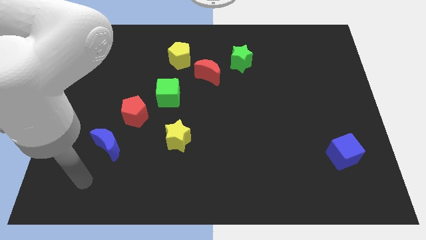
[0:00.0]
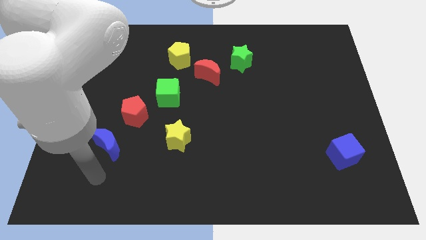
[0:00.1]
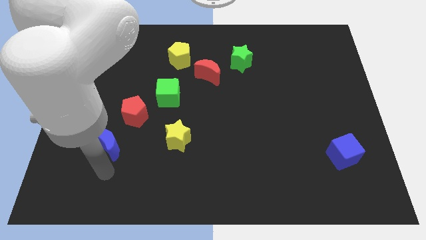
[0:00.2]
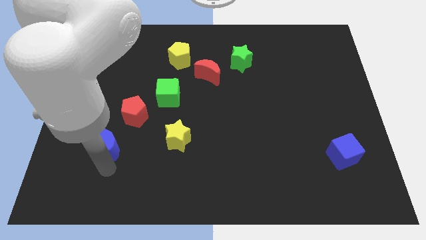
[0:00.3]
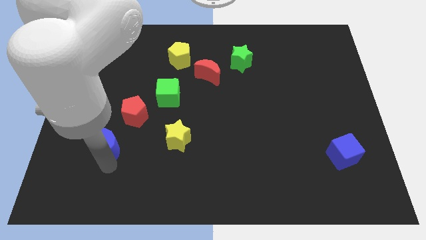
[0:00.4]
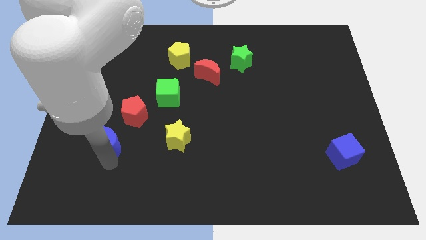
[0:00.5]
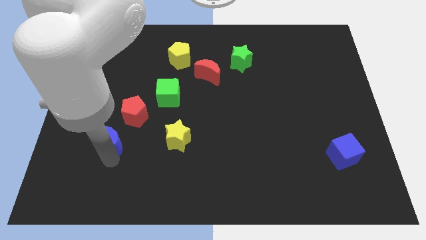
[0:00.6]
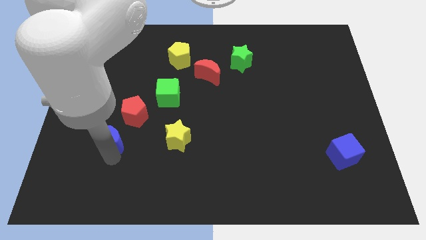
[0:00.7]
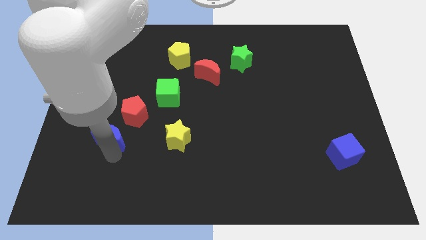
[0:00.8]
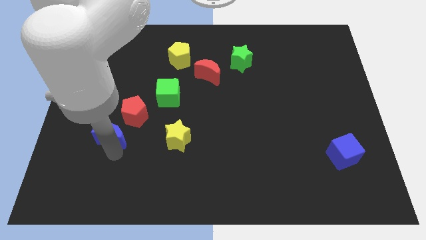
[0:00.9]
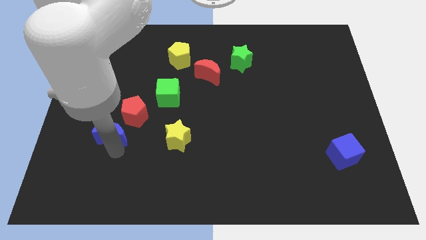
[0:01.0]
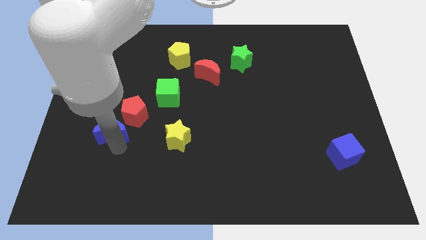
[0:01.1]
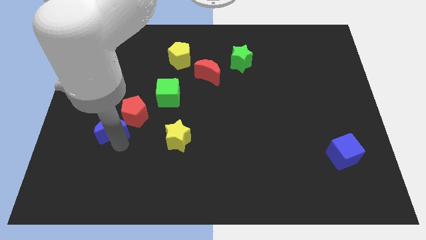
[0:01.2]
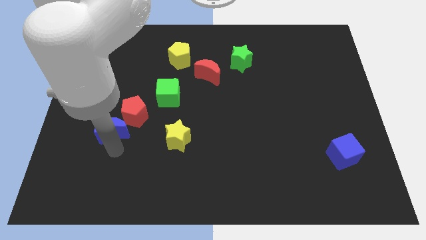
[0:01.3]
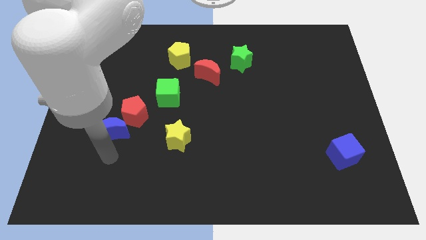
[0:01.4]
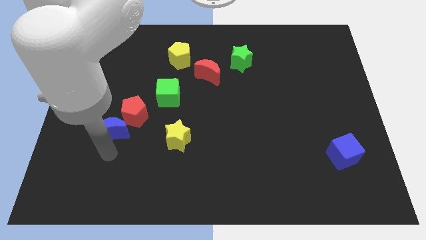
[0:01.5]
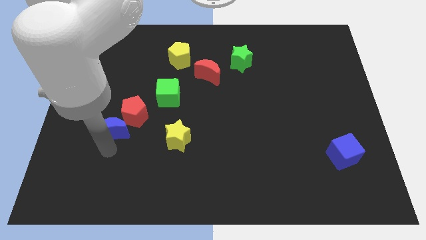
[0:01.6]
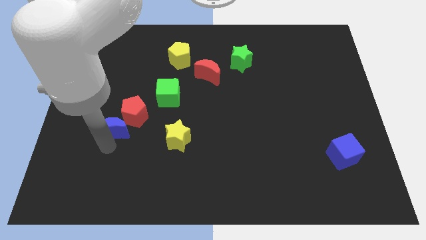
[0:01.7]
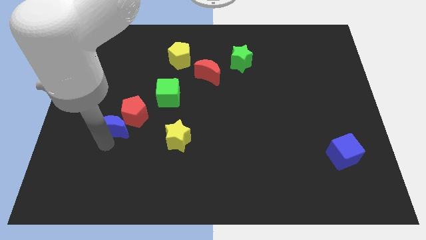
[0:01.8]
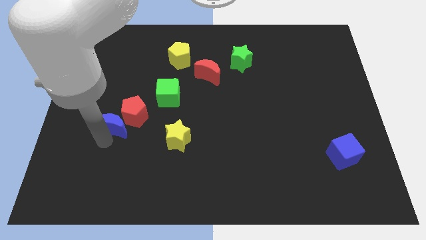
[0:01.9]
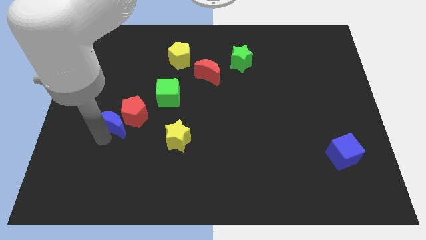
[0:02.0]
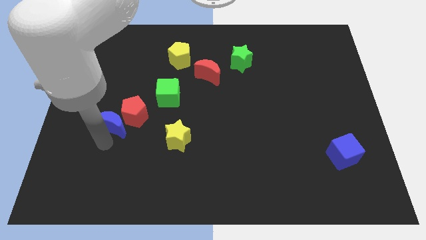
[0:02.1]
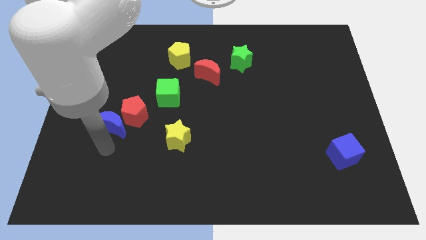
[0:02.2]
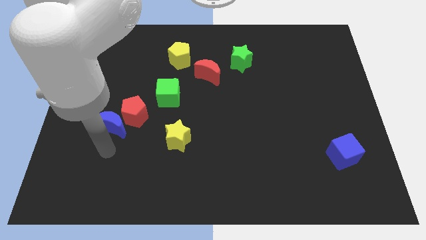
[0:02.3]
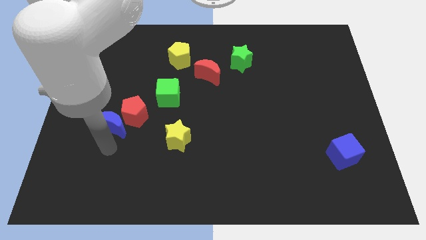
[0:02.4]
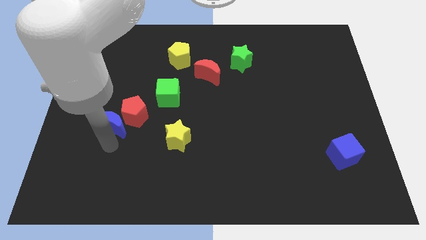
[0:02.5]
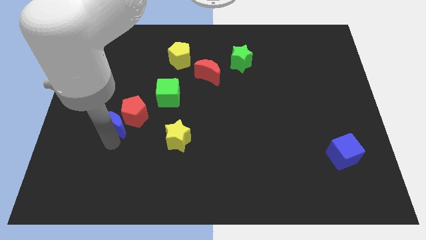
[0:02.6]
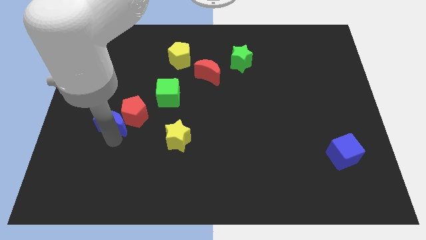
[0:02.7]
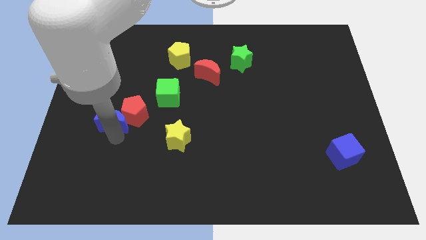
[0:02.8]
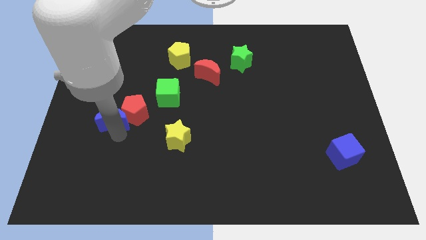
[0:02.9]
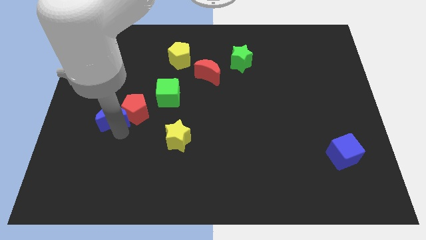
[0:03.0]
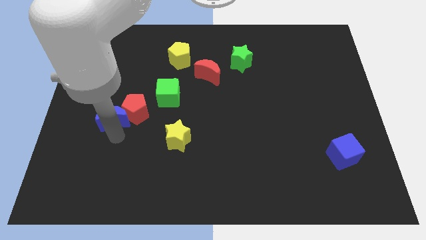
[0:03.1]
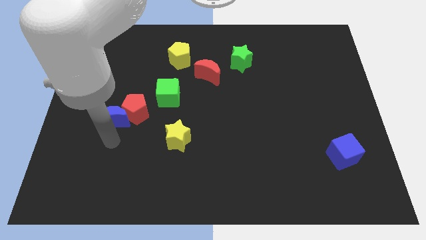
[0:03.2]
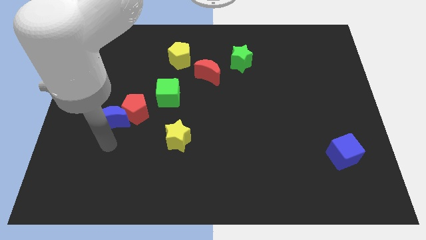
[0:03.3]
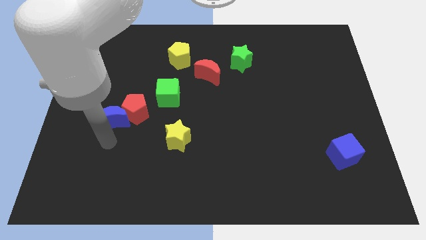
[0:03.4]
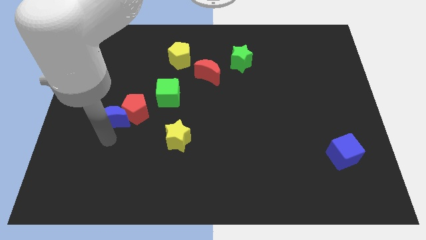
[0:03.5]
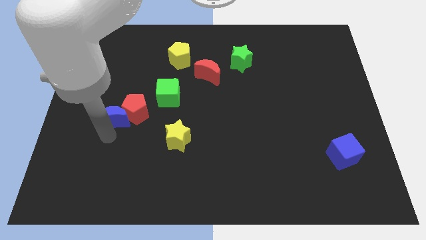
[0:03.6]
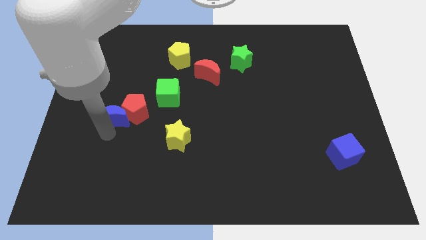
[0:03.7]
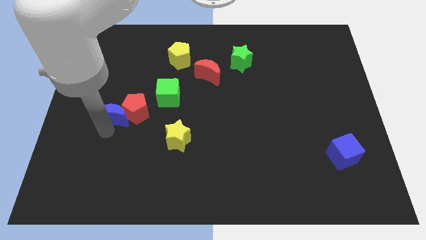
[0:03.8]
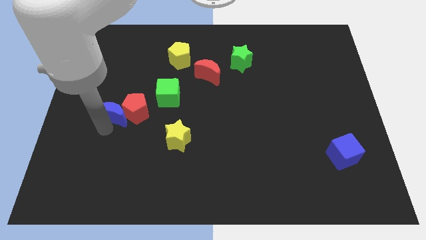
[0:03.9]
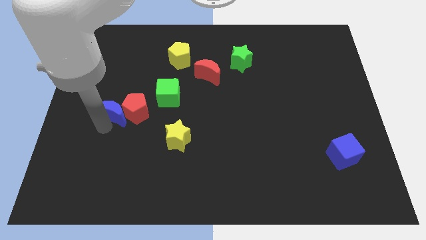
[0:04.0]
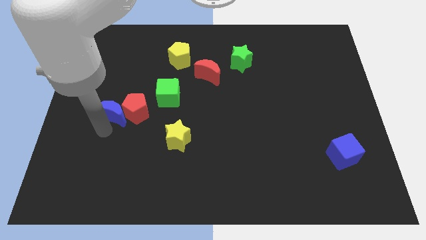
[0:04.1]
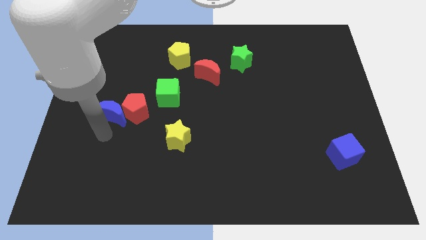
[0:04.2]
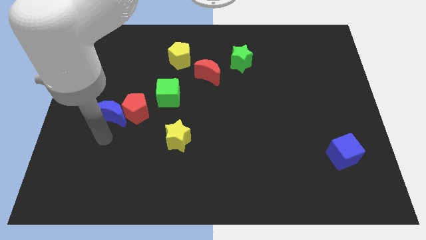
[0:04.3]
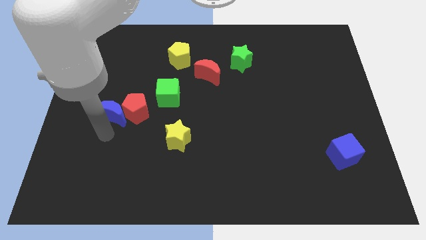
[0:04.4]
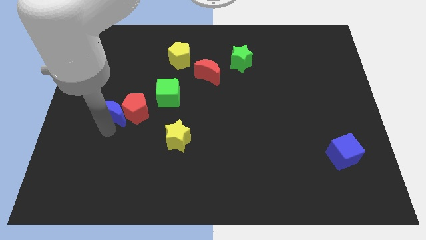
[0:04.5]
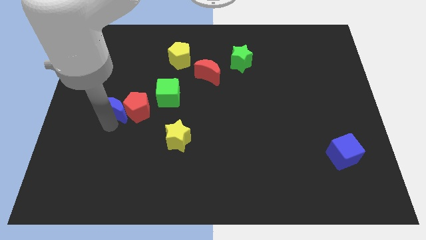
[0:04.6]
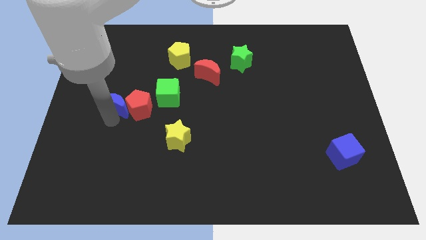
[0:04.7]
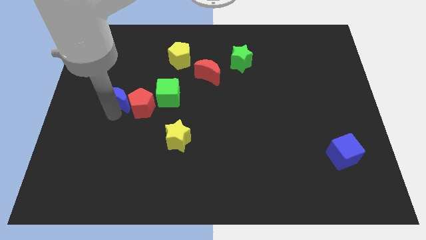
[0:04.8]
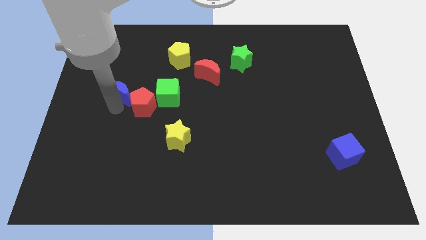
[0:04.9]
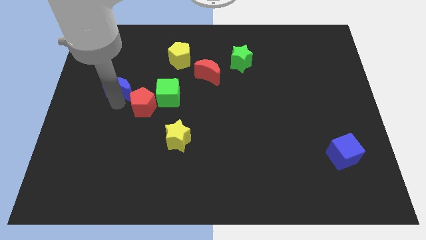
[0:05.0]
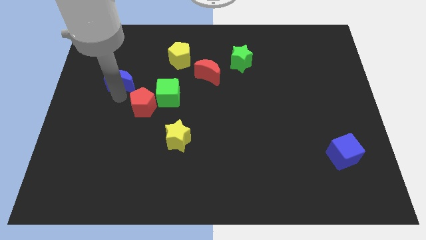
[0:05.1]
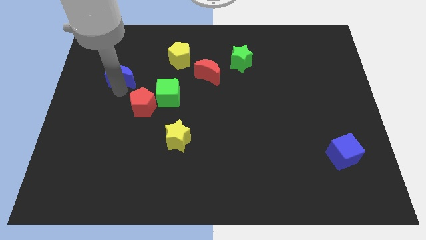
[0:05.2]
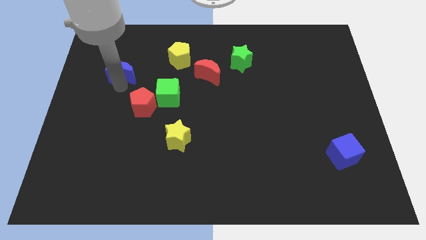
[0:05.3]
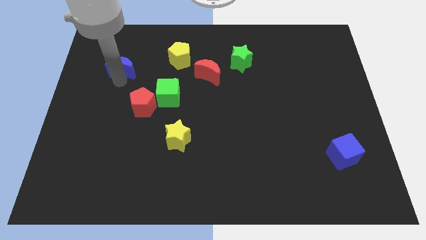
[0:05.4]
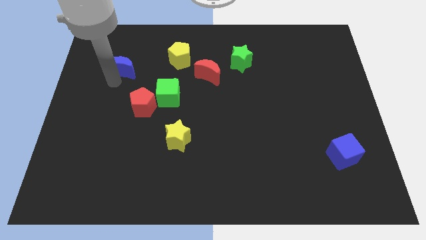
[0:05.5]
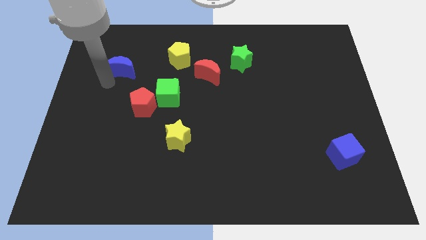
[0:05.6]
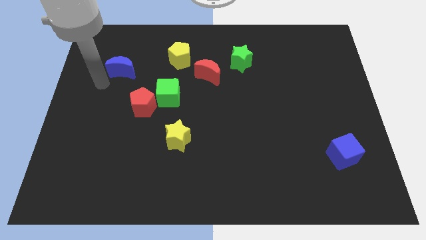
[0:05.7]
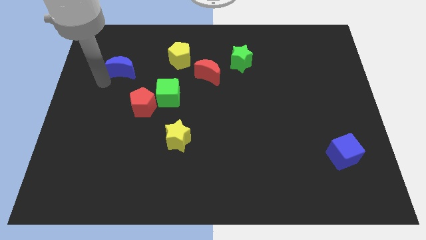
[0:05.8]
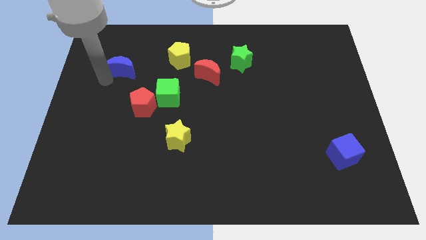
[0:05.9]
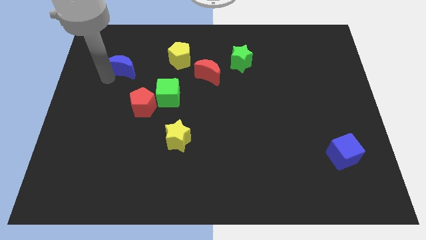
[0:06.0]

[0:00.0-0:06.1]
move the blue moon to the left side of the yellow pentagon

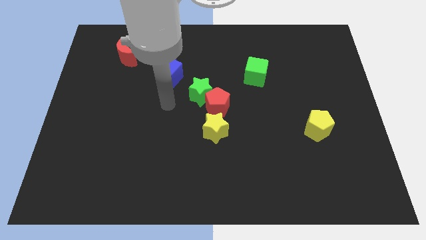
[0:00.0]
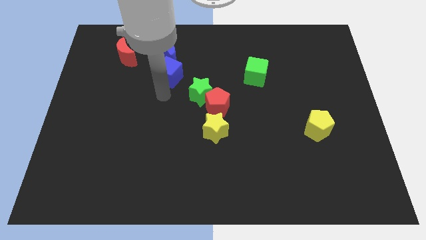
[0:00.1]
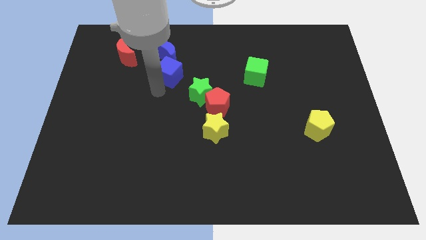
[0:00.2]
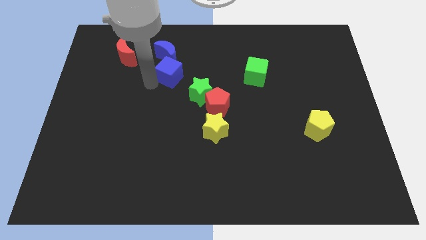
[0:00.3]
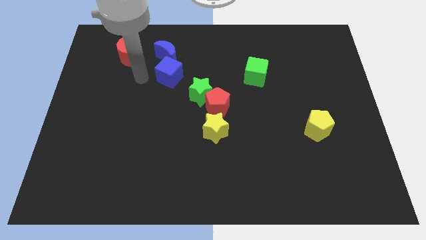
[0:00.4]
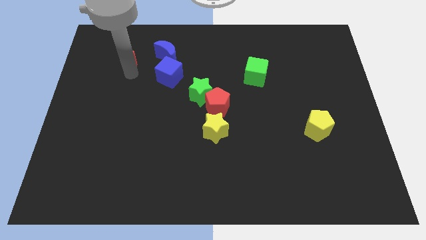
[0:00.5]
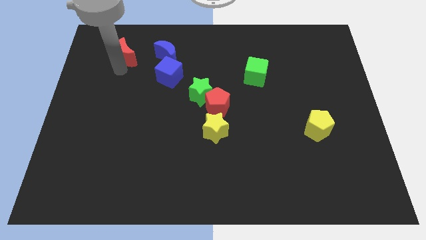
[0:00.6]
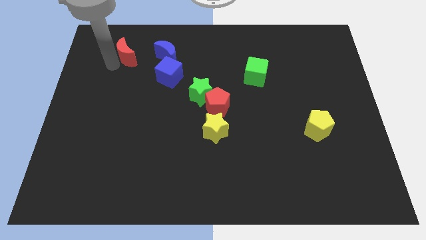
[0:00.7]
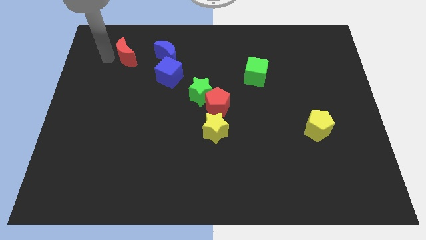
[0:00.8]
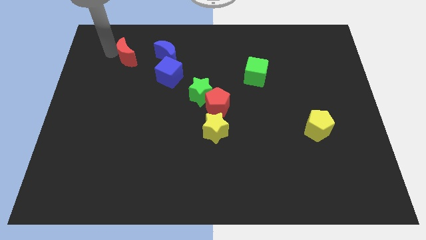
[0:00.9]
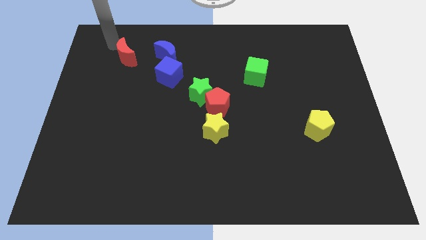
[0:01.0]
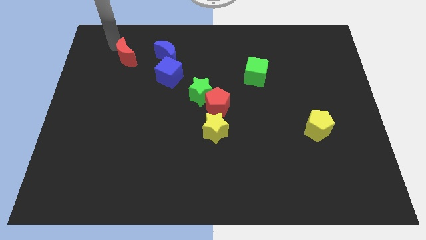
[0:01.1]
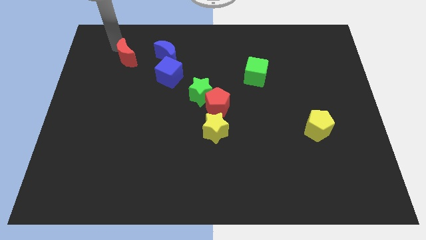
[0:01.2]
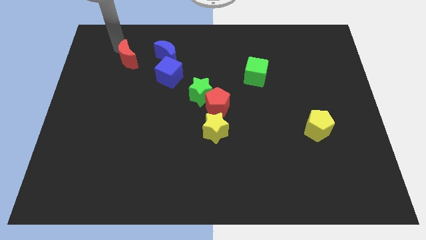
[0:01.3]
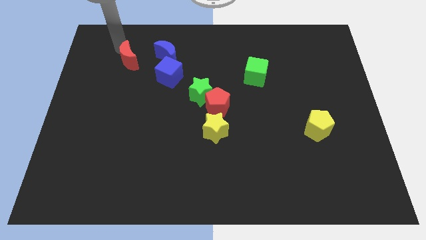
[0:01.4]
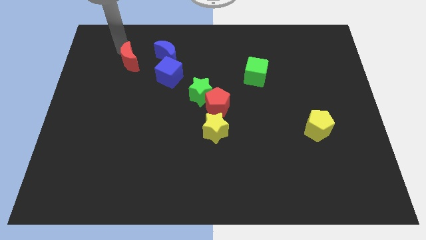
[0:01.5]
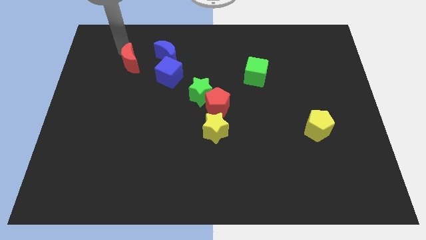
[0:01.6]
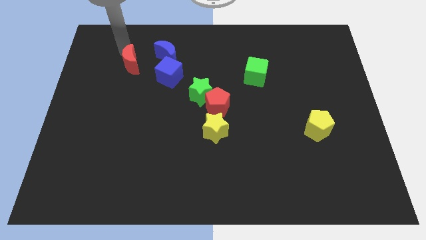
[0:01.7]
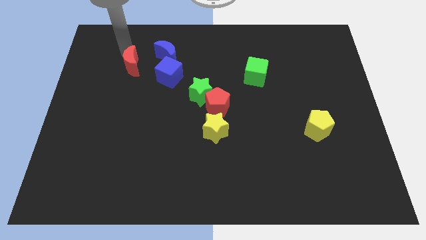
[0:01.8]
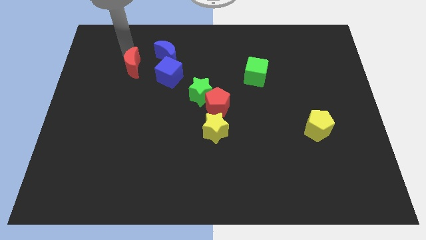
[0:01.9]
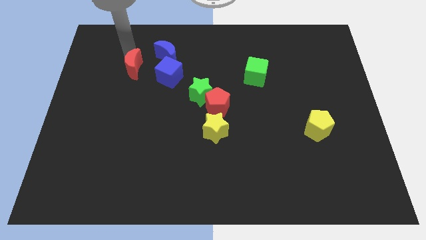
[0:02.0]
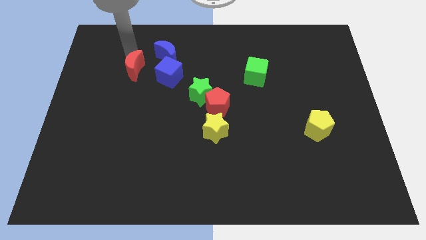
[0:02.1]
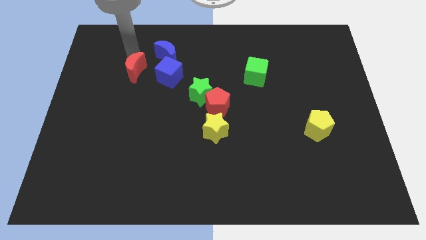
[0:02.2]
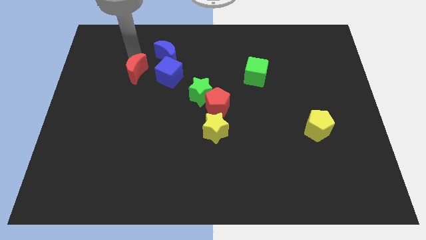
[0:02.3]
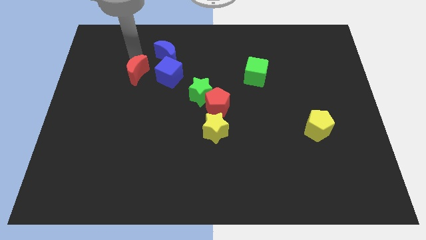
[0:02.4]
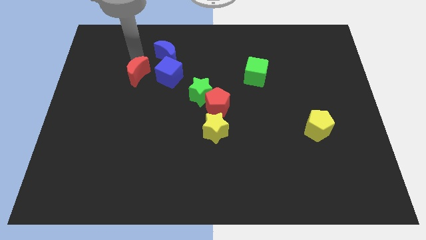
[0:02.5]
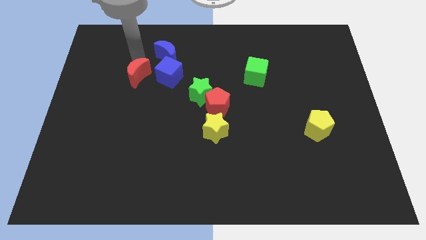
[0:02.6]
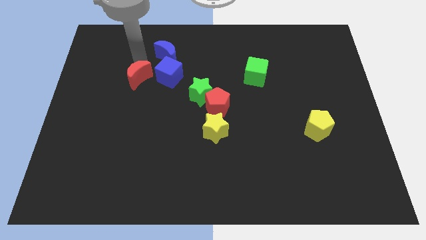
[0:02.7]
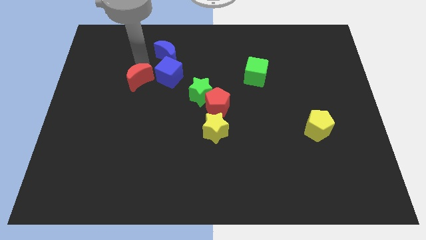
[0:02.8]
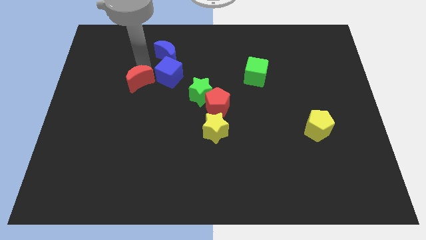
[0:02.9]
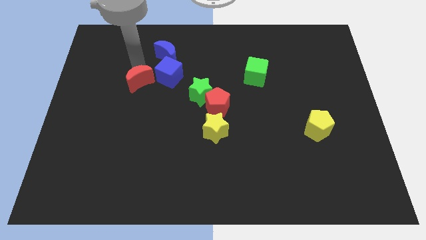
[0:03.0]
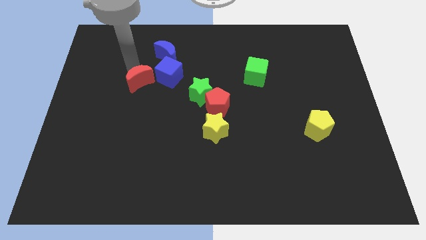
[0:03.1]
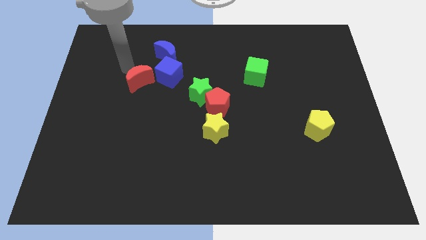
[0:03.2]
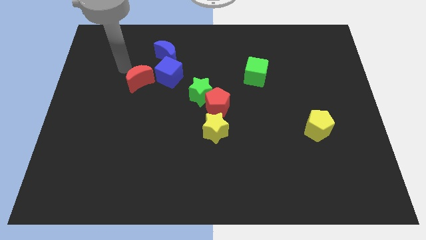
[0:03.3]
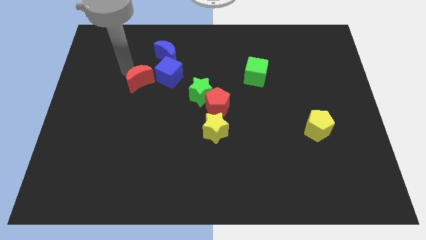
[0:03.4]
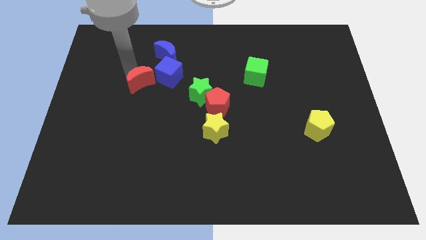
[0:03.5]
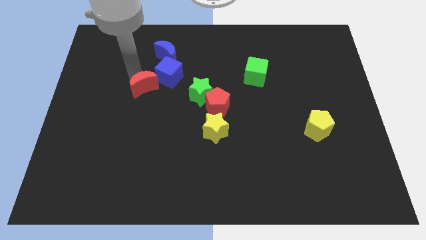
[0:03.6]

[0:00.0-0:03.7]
push the red moon left of the green star
